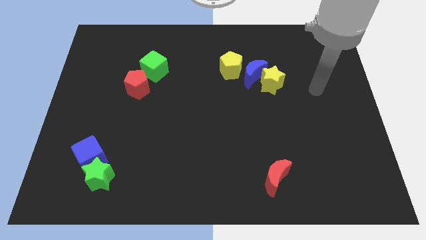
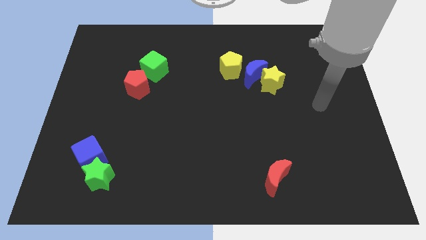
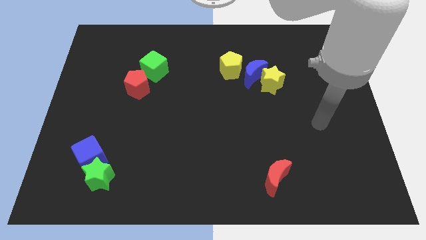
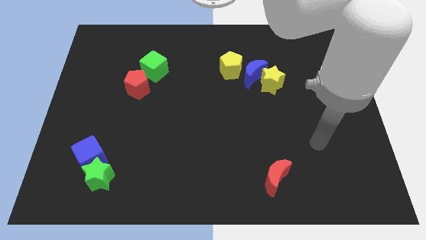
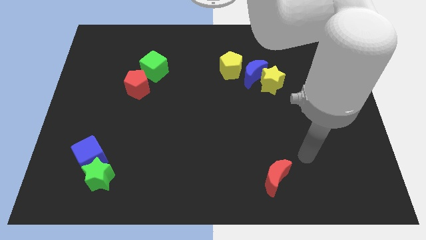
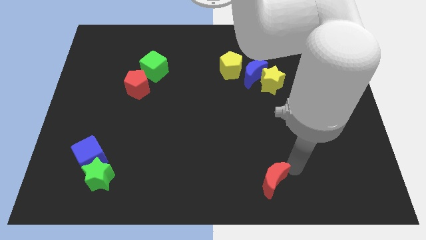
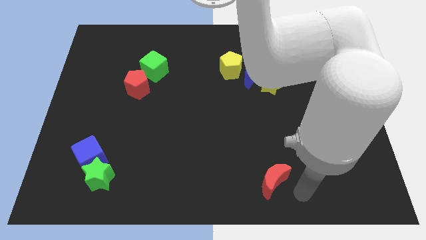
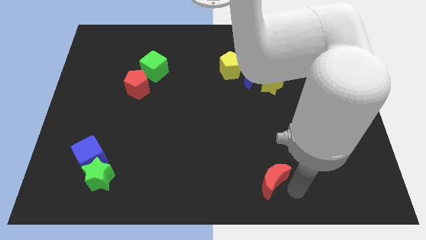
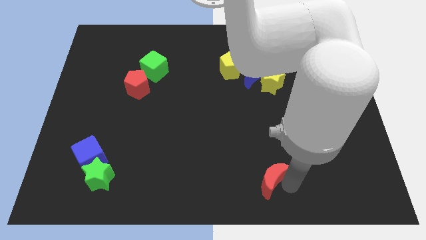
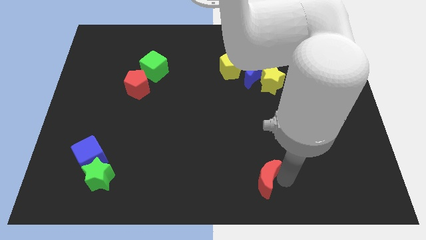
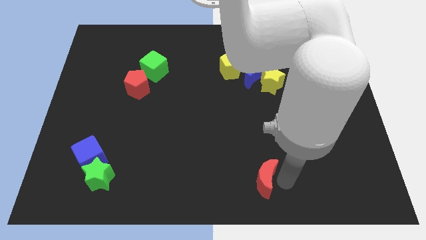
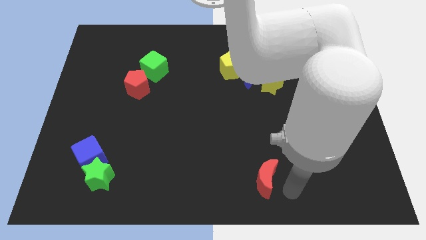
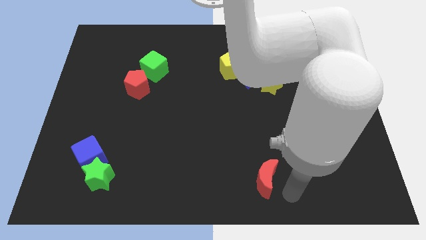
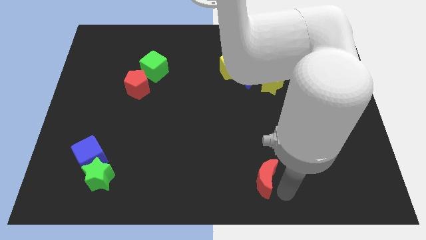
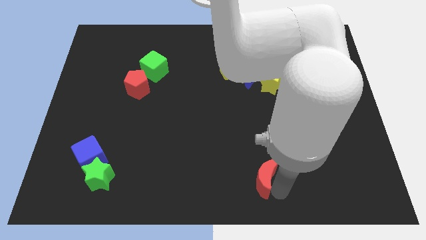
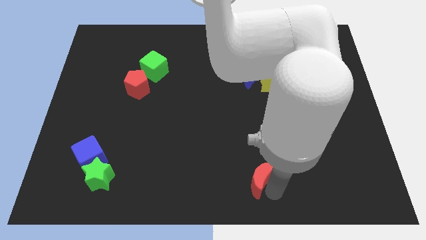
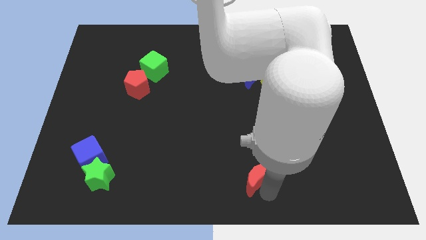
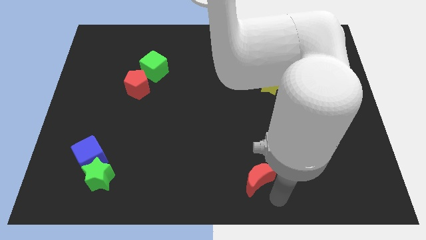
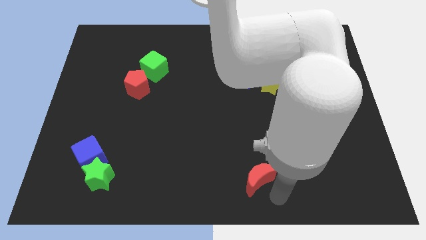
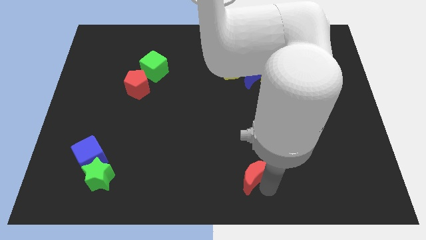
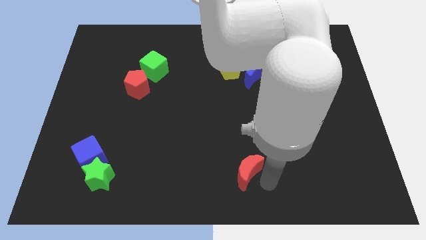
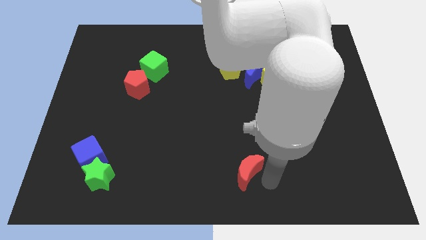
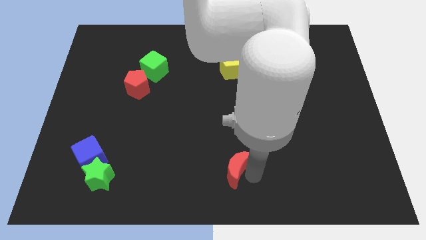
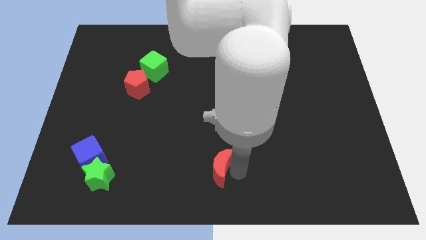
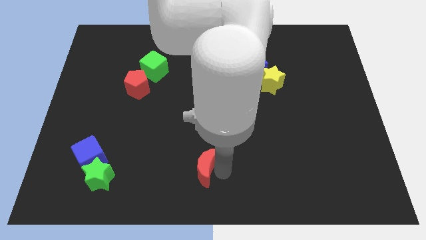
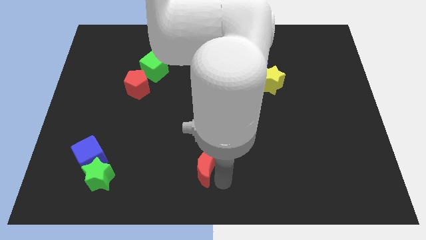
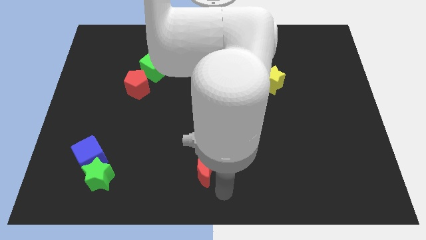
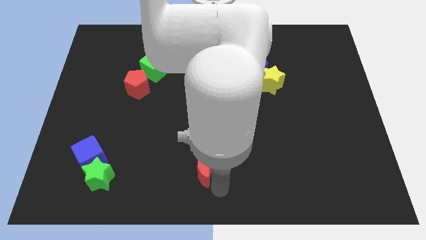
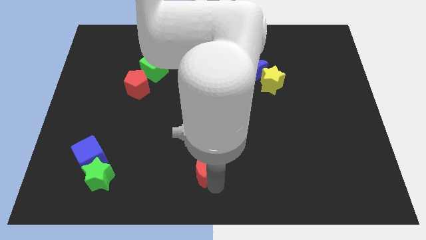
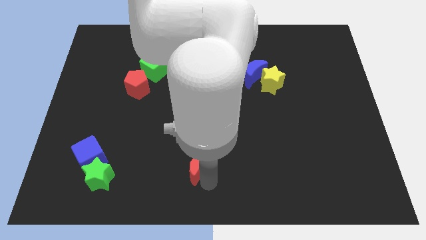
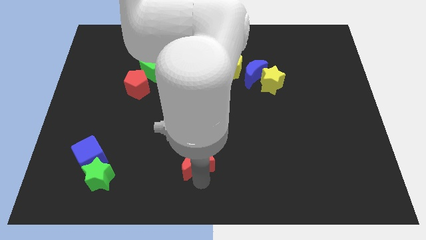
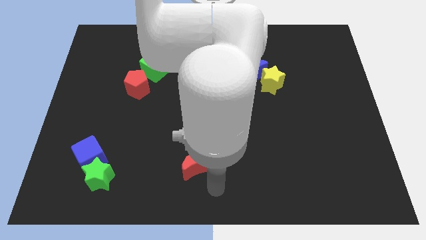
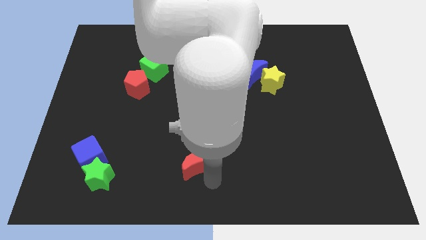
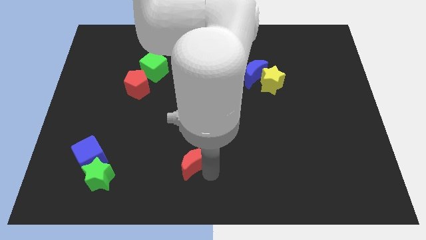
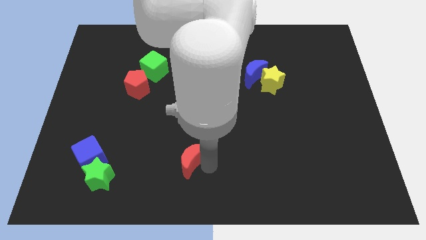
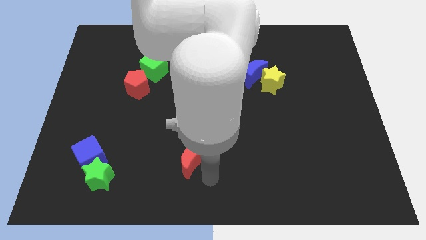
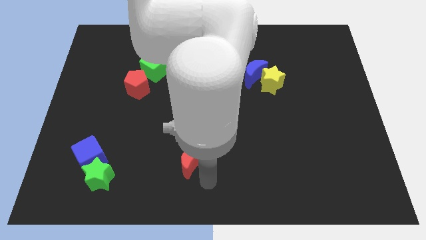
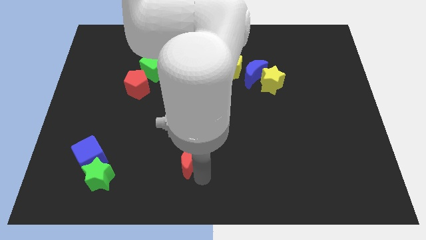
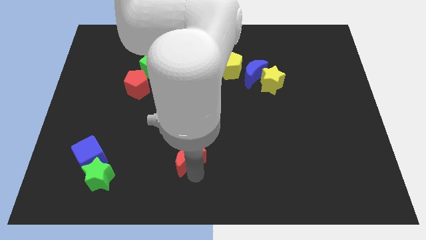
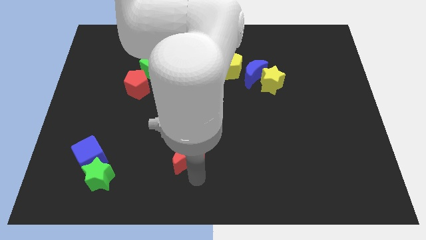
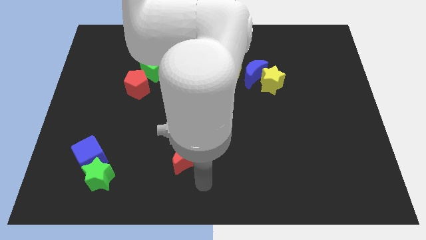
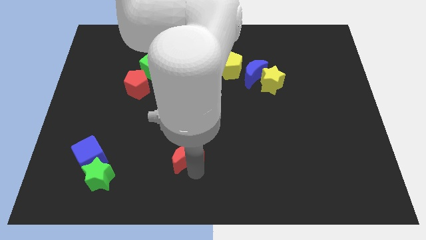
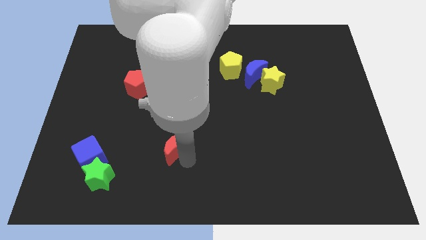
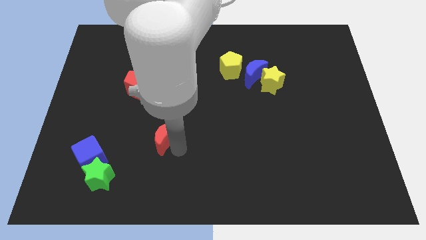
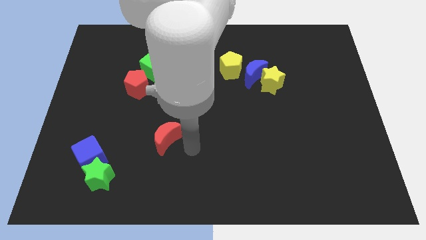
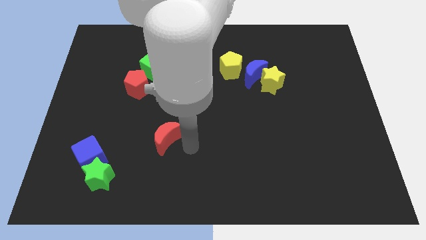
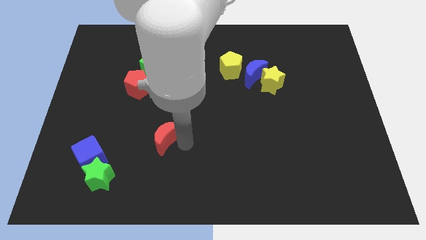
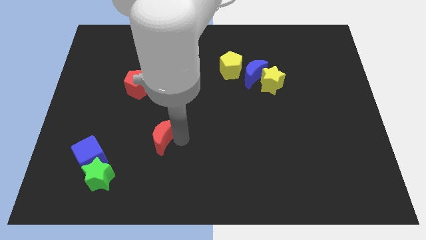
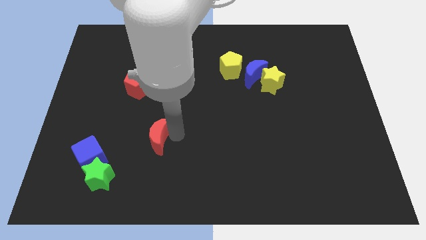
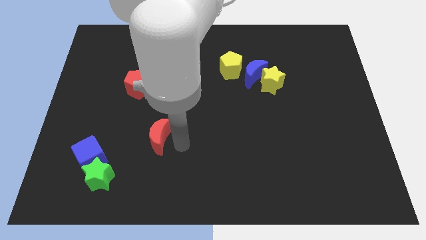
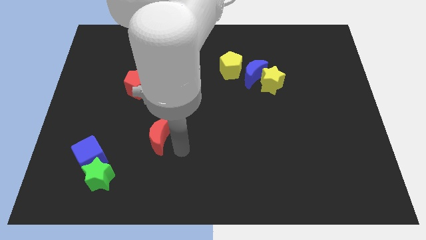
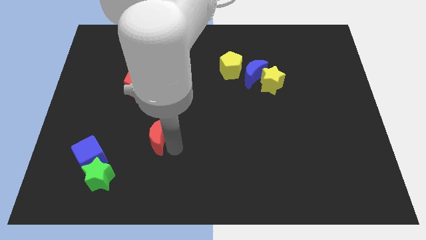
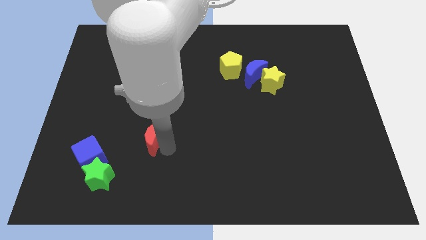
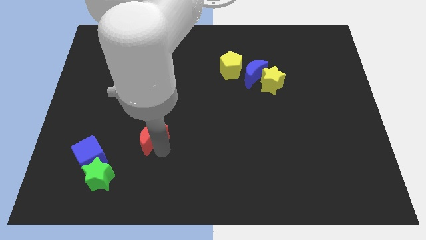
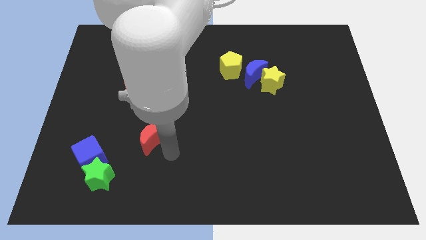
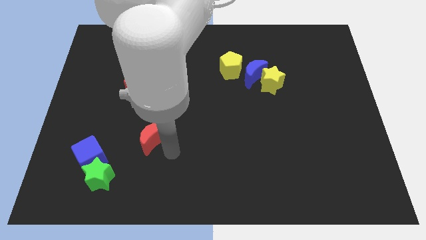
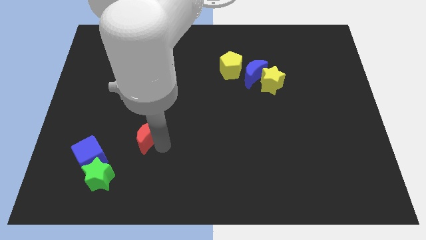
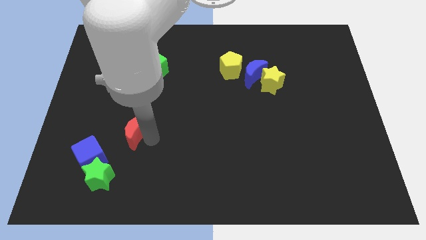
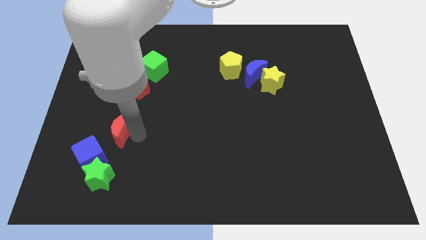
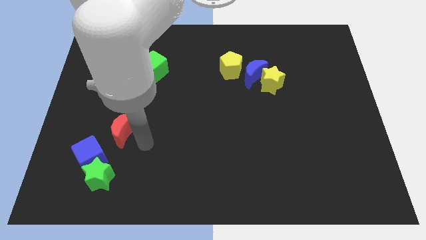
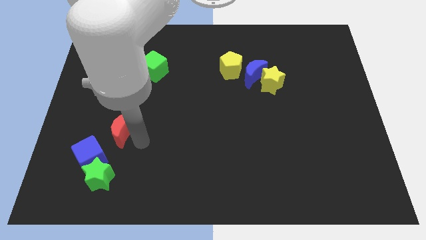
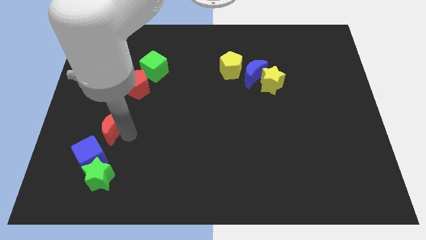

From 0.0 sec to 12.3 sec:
put the red moon above the blue cube

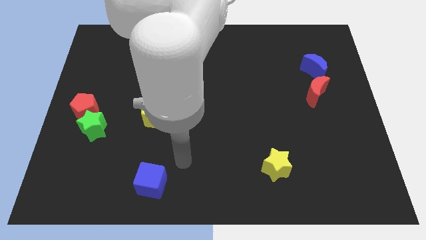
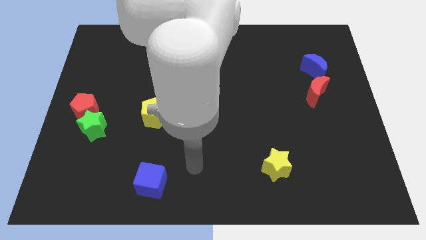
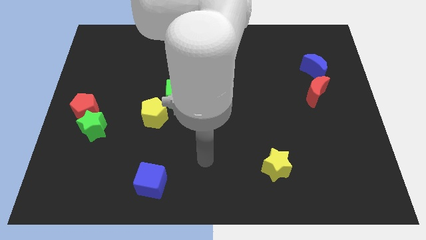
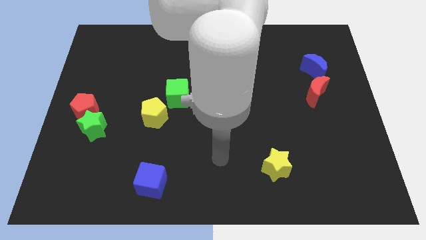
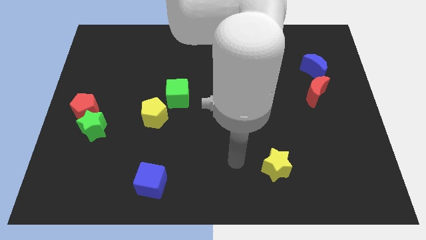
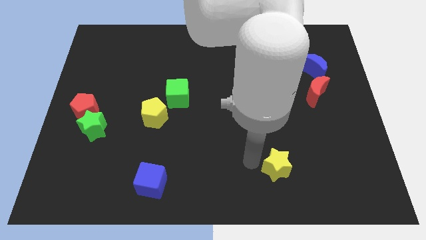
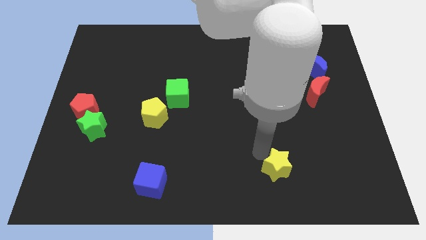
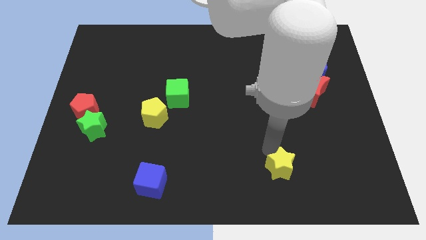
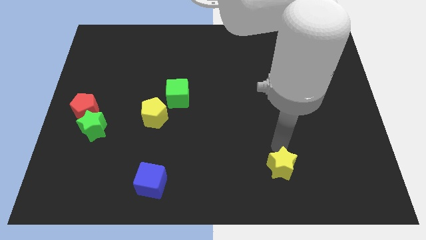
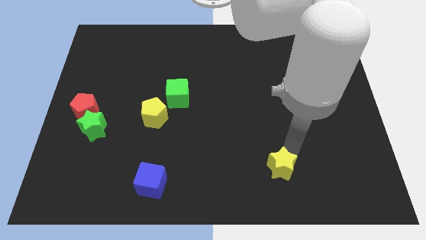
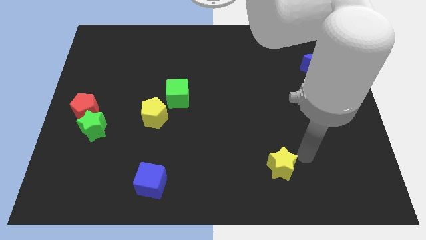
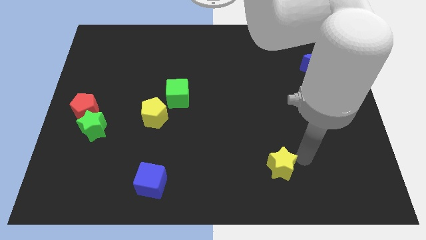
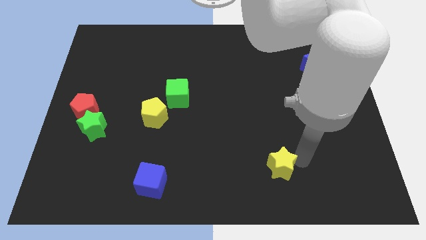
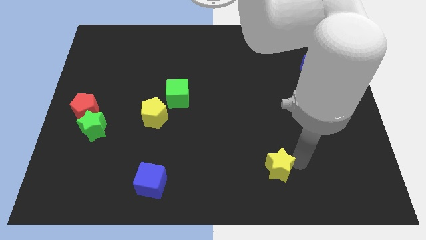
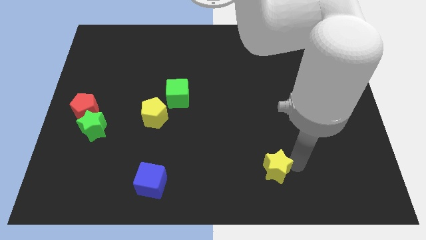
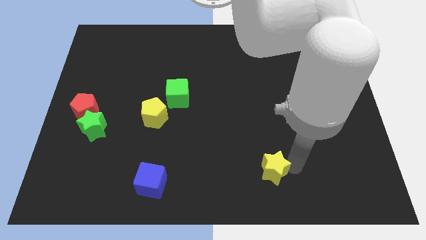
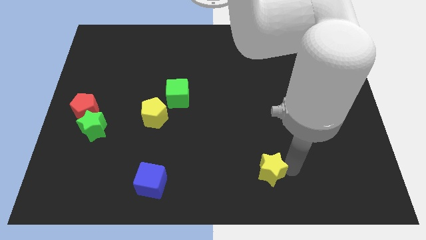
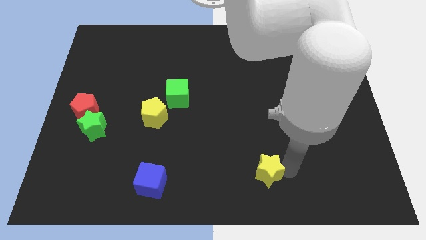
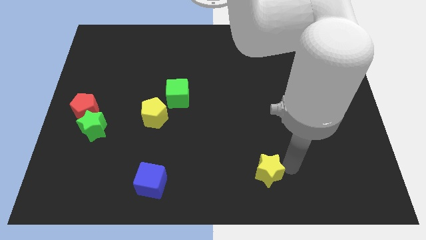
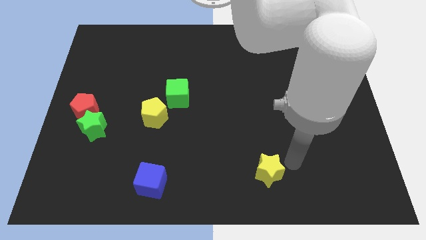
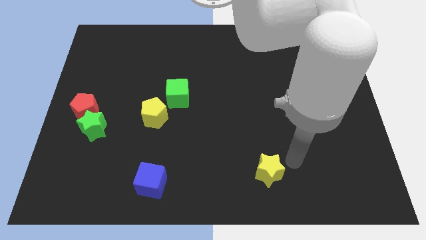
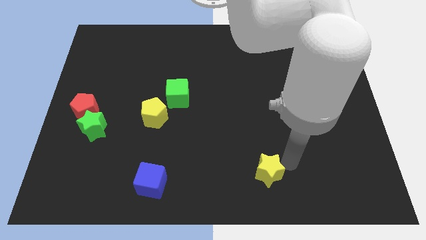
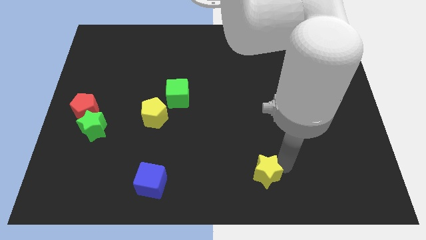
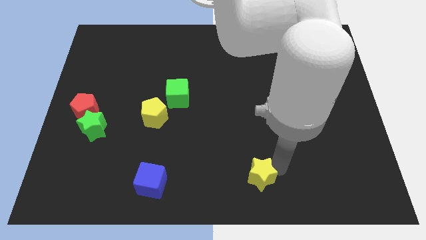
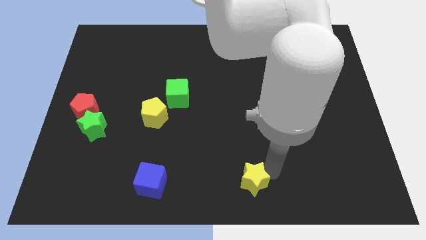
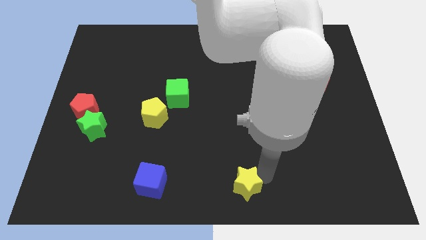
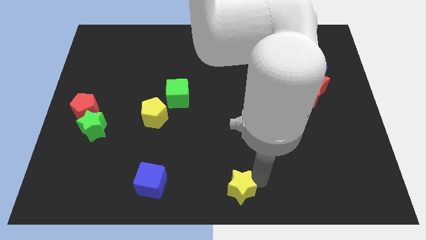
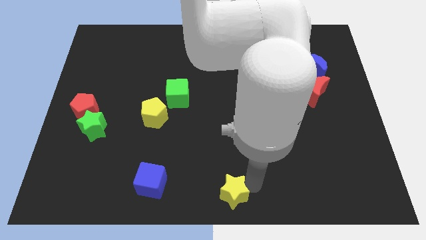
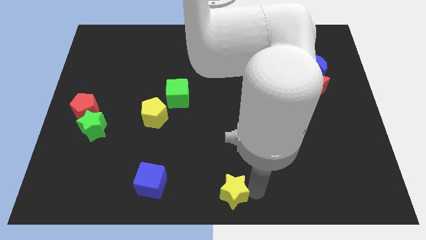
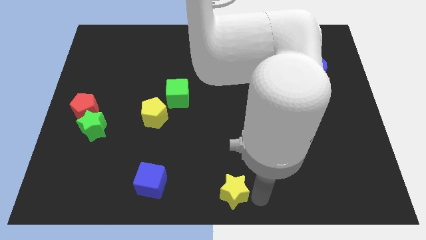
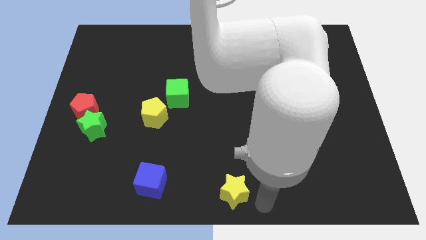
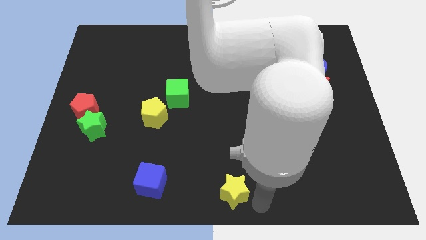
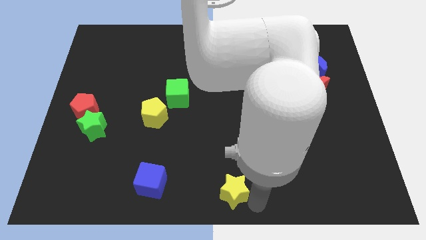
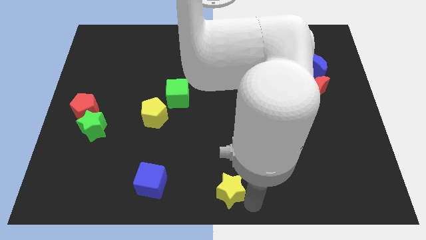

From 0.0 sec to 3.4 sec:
move the yellow star to the right of the blue cube
